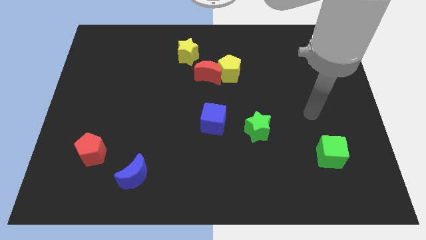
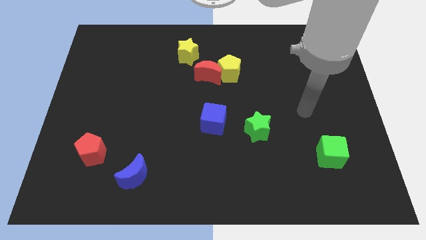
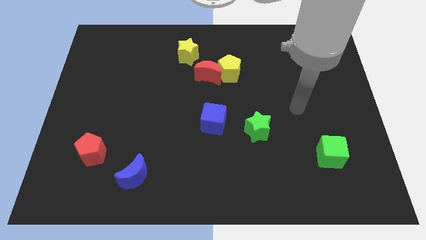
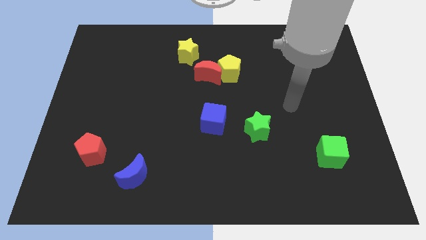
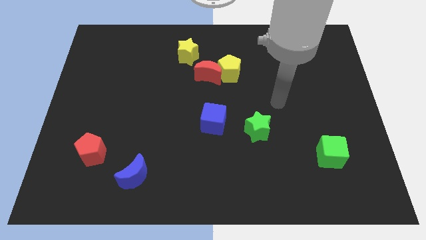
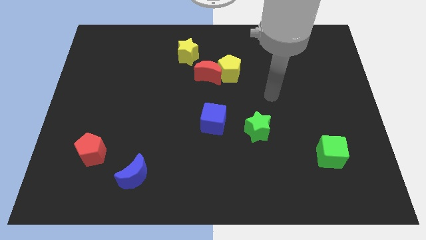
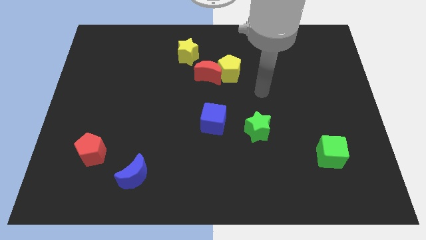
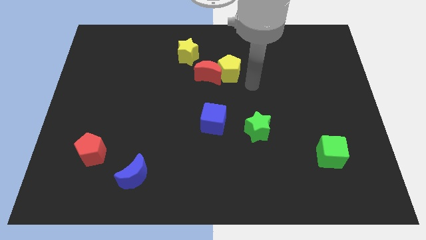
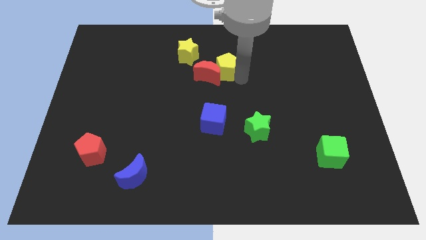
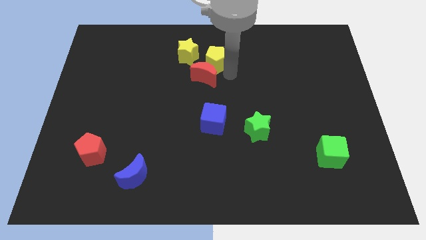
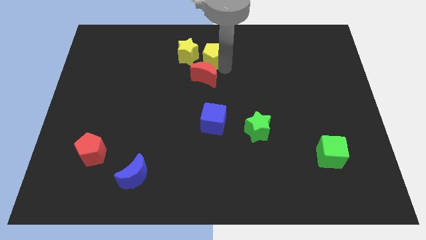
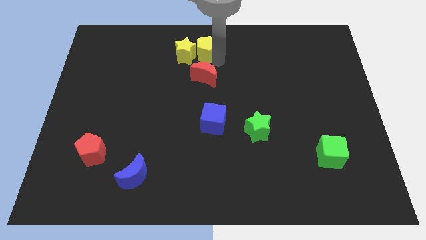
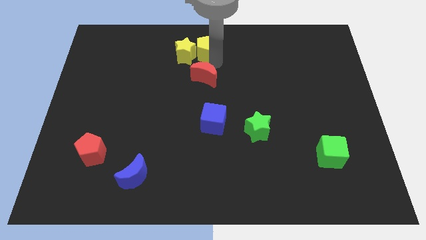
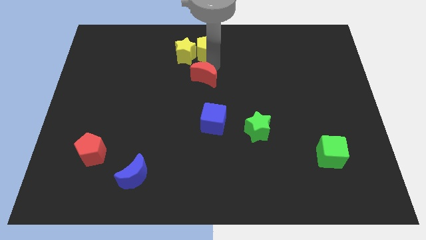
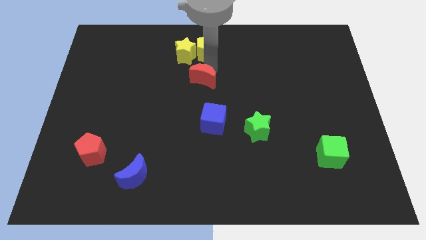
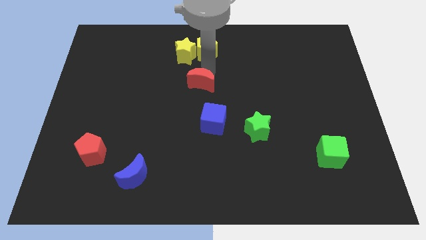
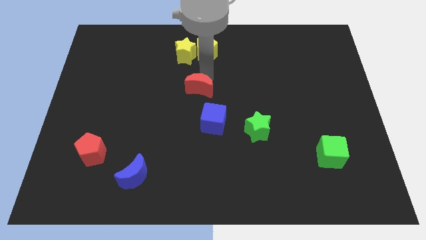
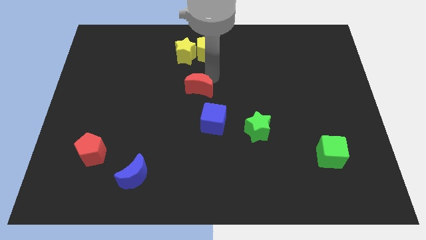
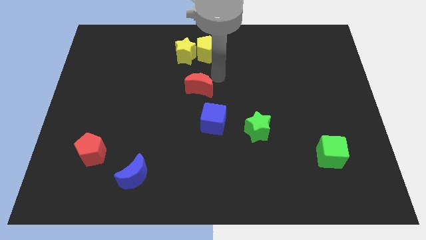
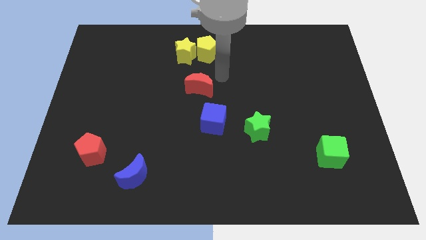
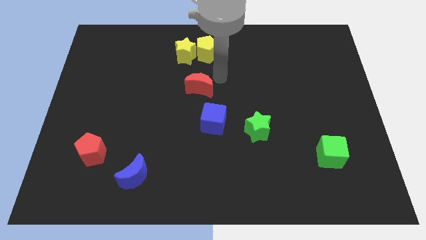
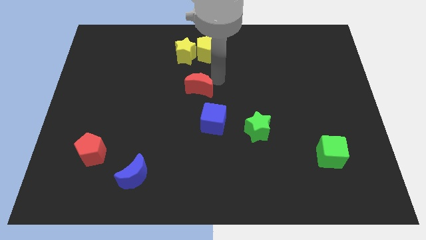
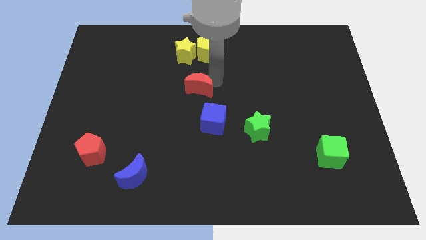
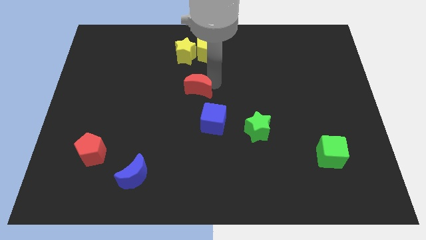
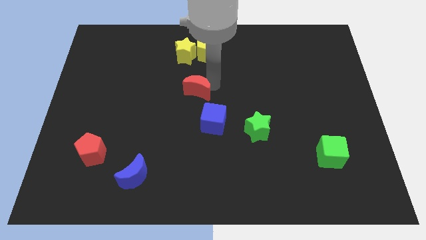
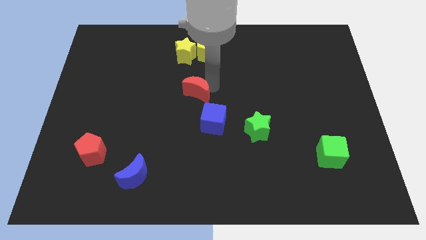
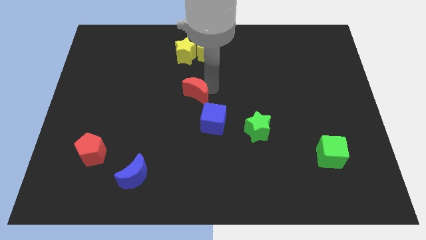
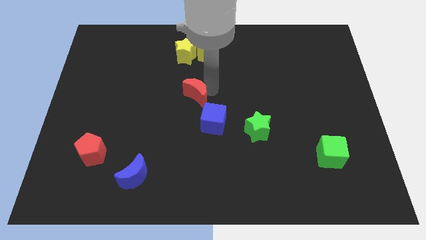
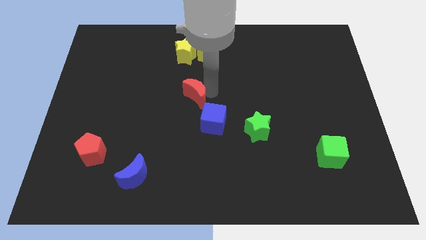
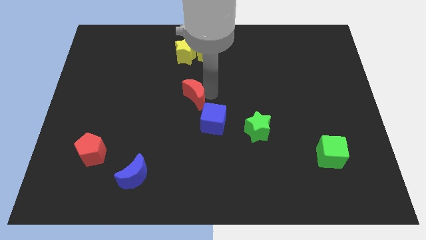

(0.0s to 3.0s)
slide the red moon downwards and then to the left a little

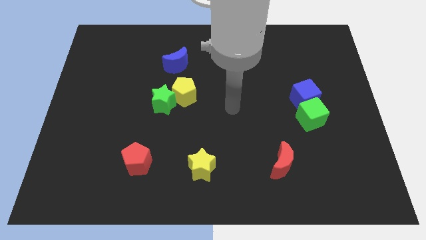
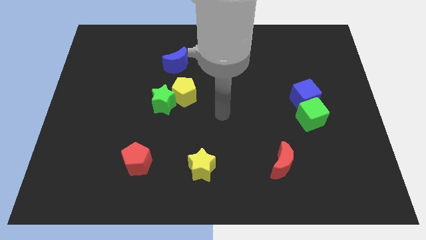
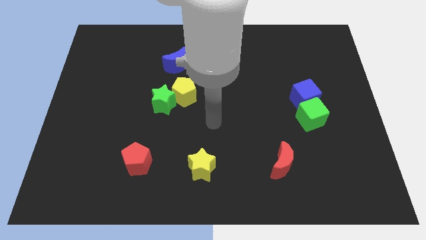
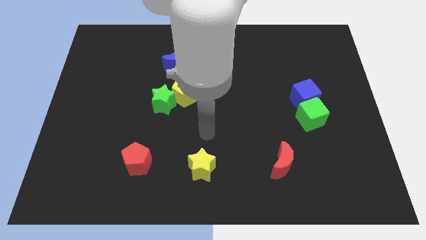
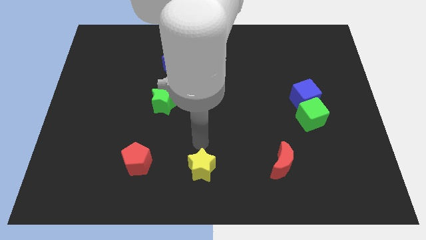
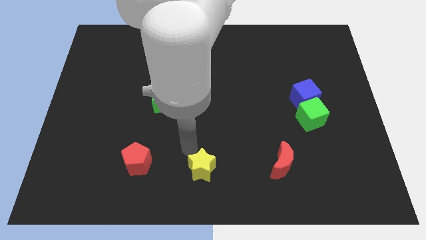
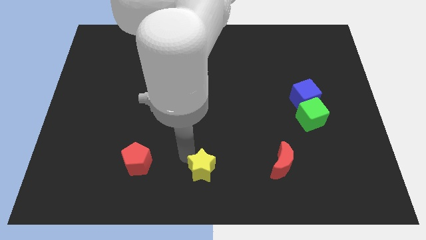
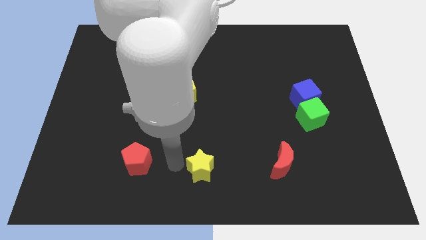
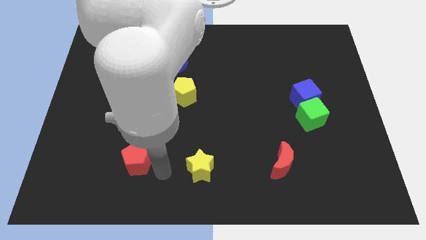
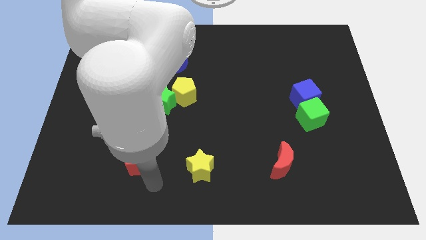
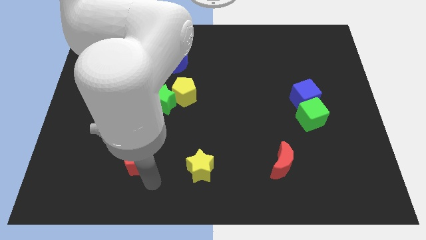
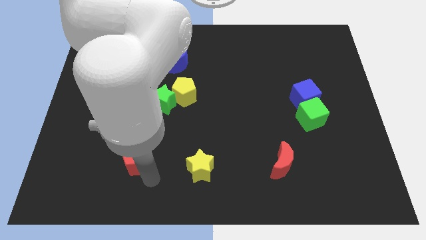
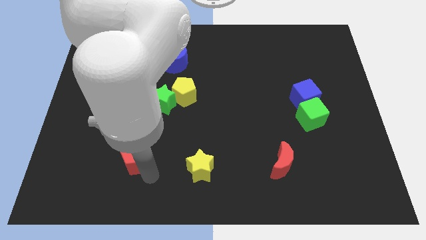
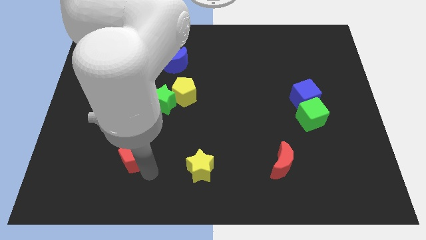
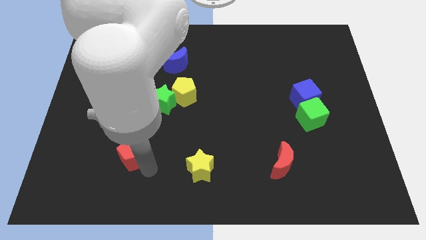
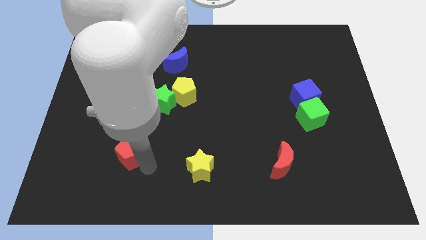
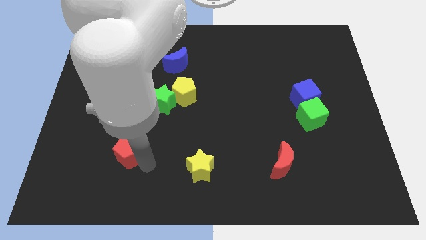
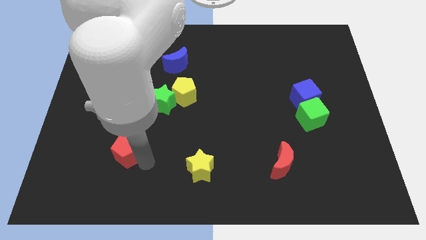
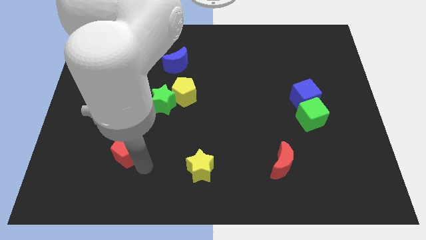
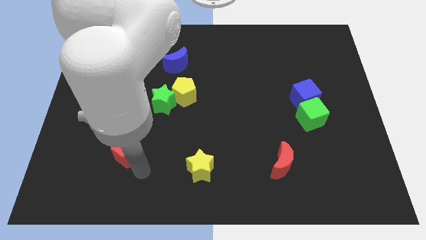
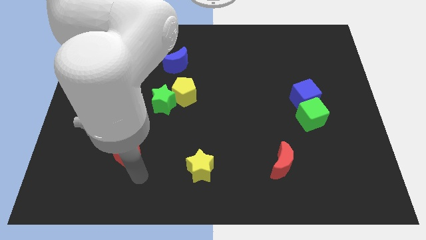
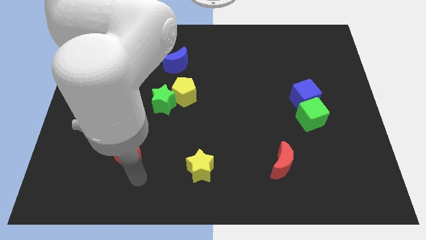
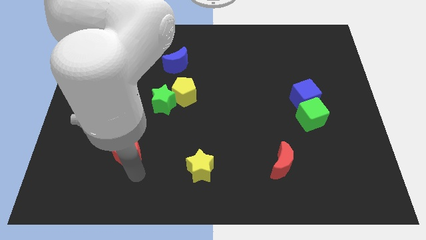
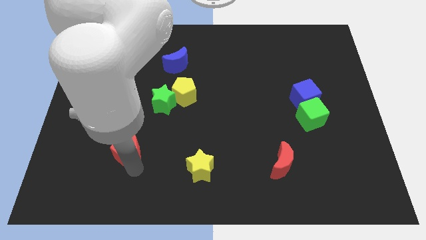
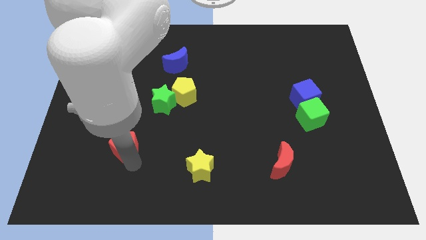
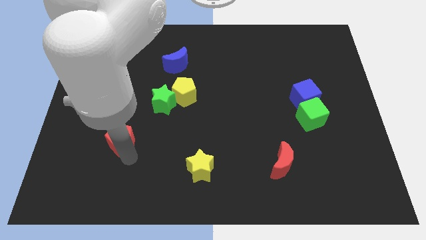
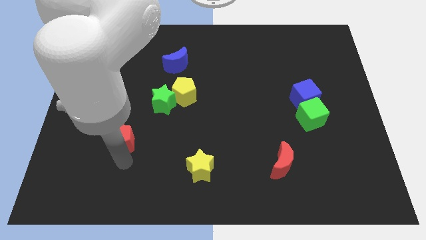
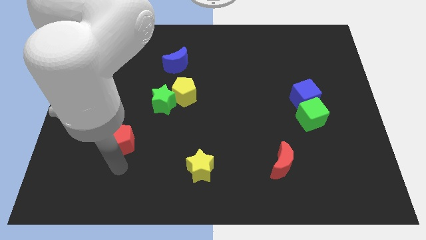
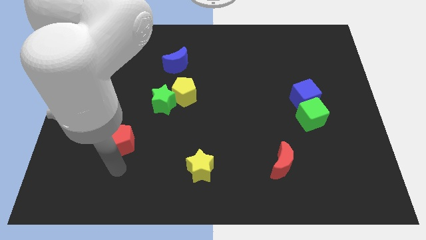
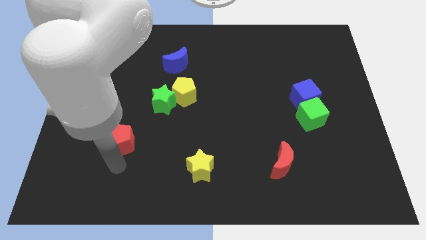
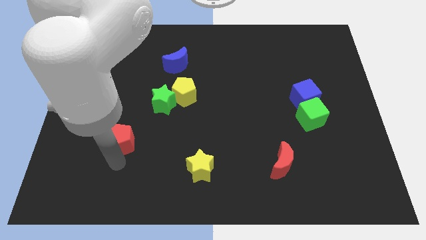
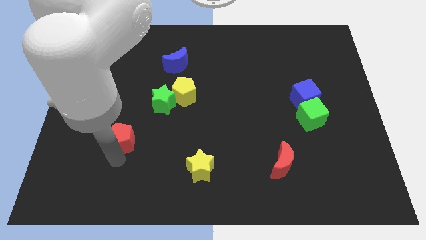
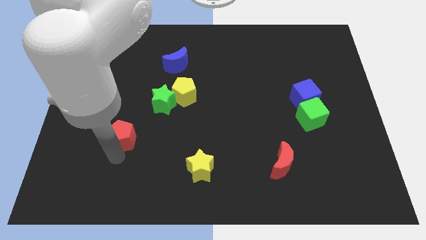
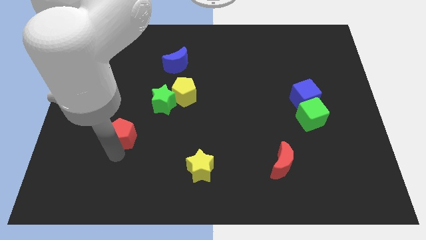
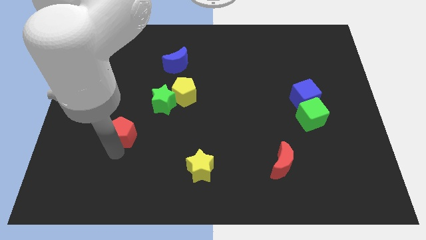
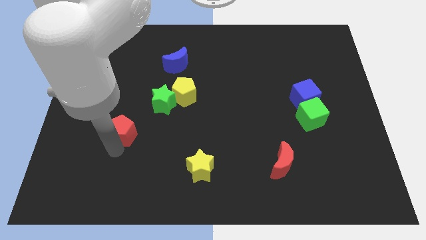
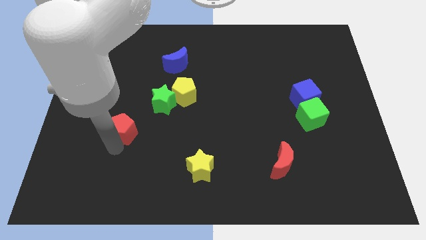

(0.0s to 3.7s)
move the red pentagon a bit upwards

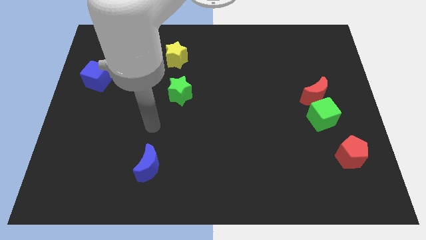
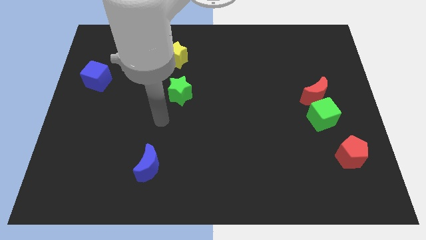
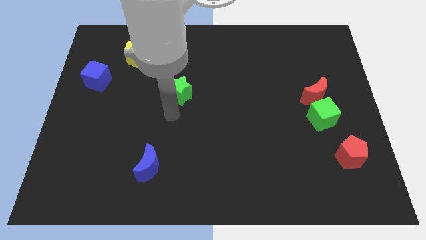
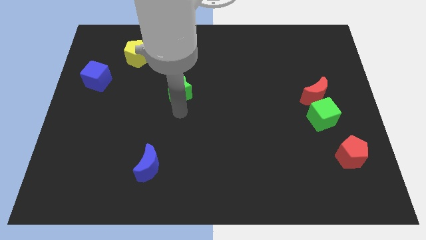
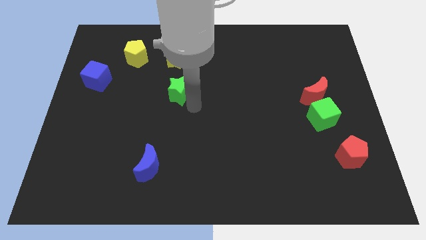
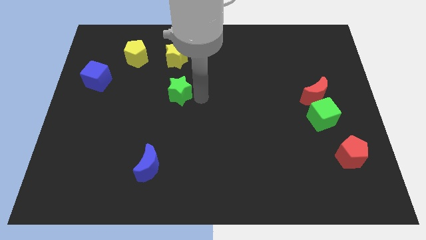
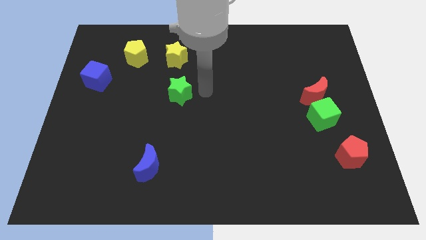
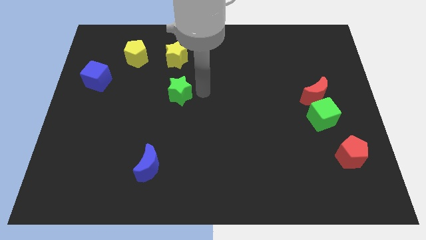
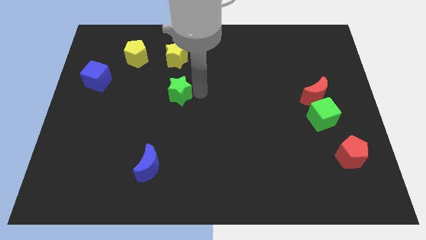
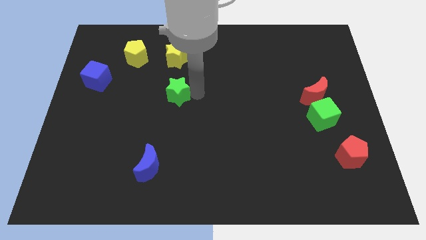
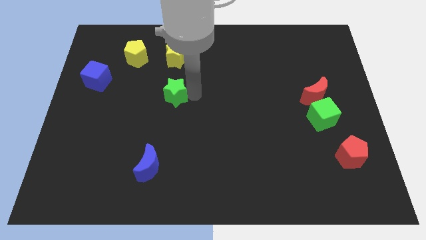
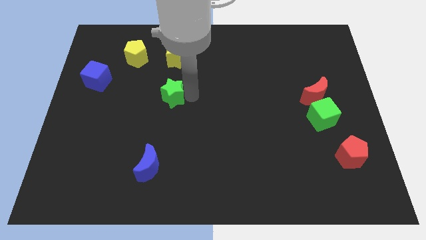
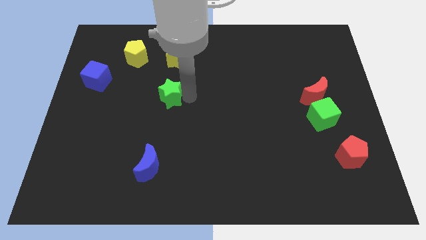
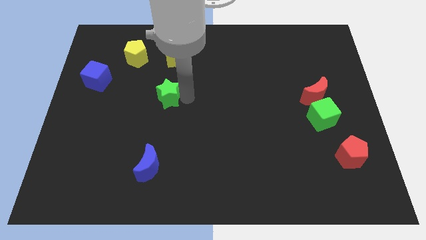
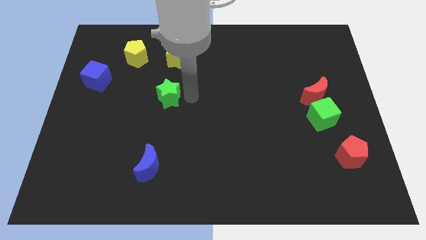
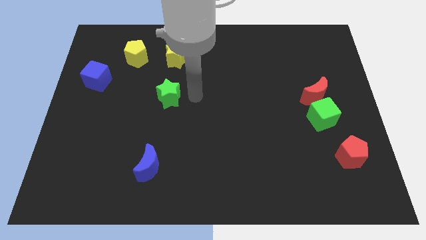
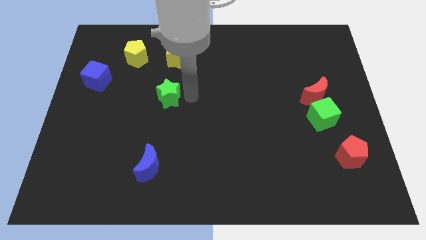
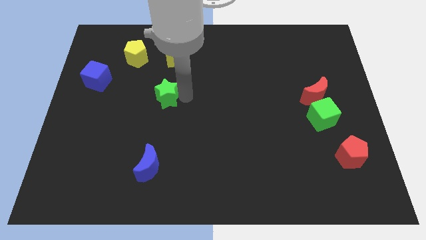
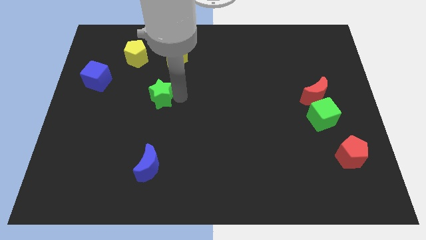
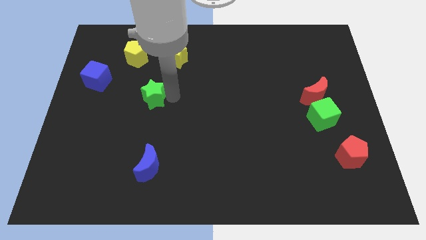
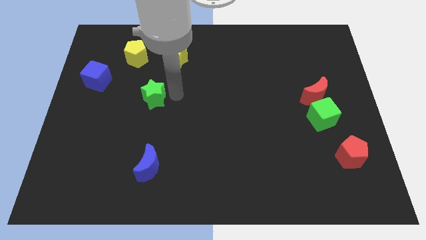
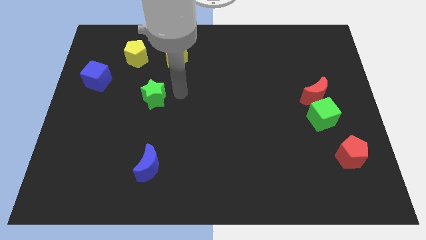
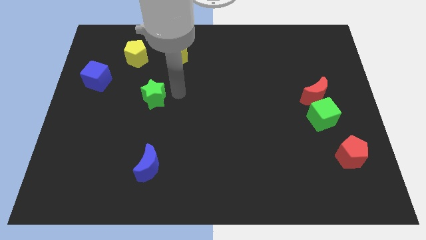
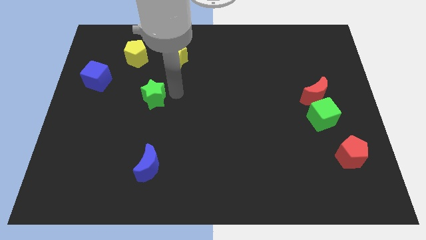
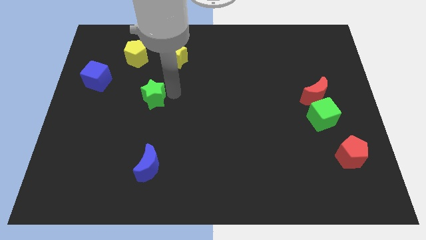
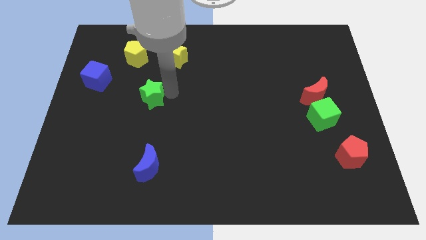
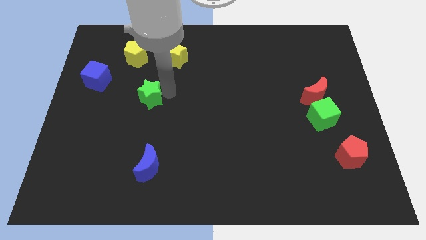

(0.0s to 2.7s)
push the green star to the left slightly
